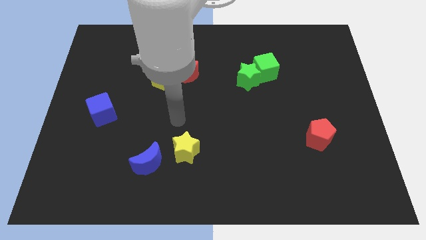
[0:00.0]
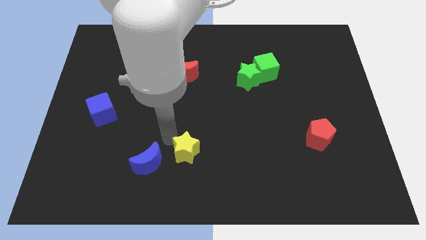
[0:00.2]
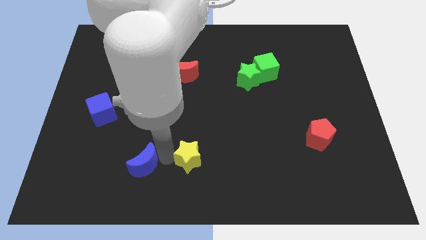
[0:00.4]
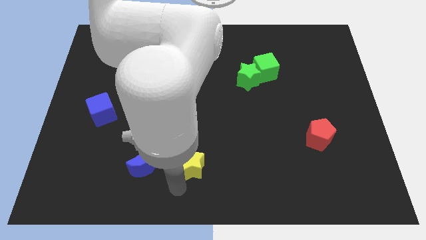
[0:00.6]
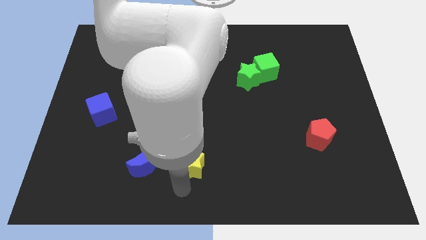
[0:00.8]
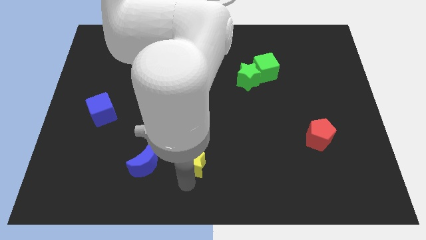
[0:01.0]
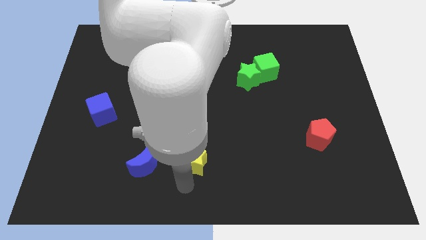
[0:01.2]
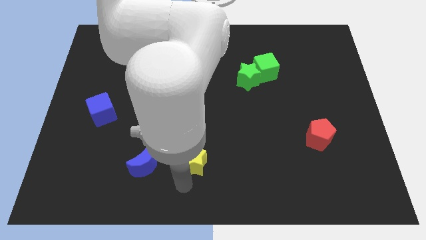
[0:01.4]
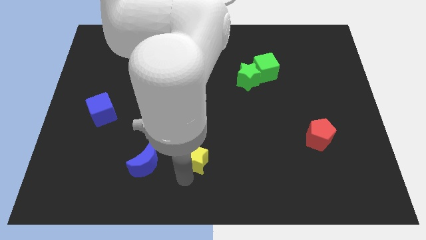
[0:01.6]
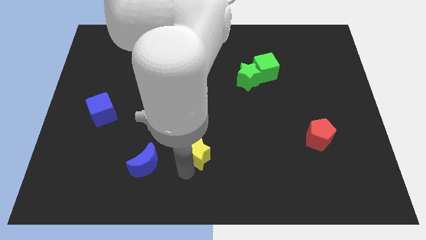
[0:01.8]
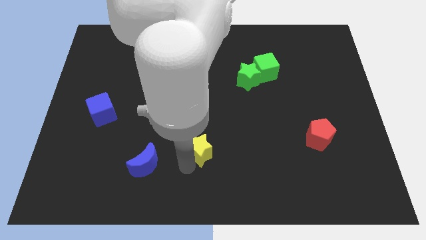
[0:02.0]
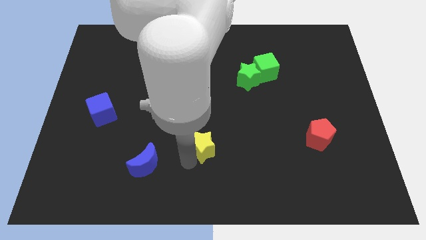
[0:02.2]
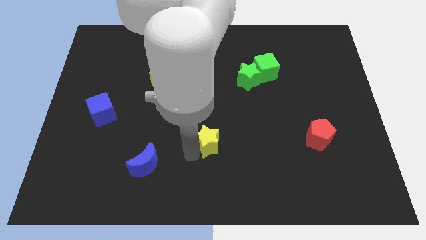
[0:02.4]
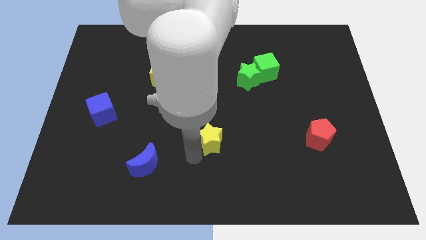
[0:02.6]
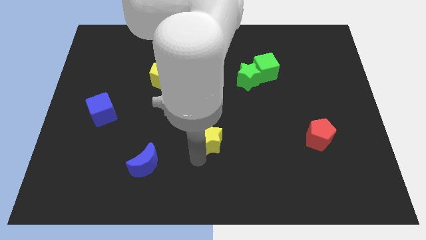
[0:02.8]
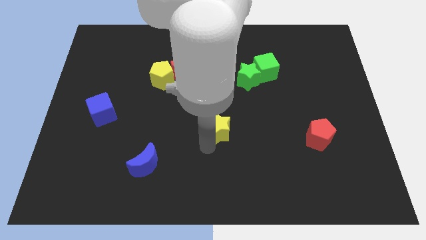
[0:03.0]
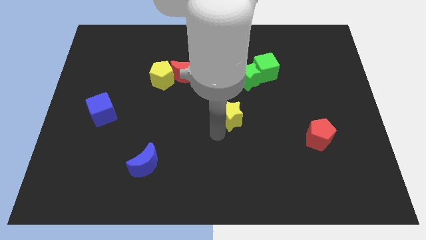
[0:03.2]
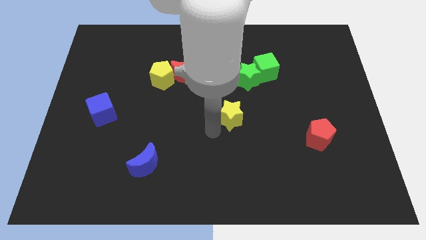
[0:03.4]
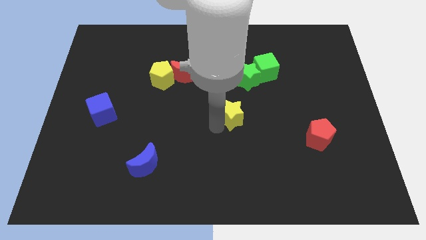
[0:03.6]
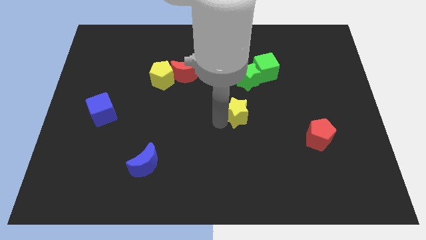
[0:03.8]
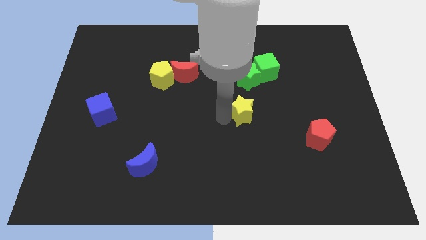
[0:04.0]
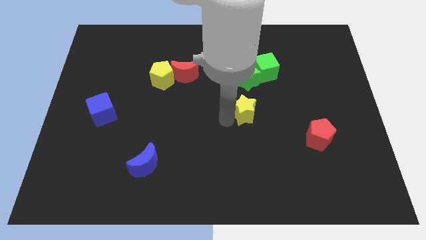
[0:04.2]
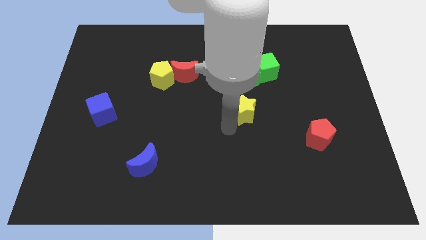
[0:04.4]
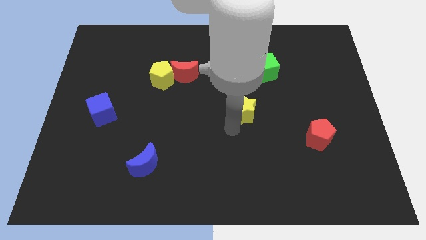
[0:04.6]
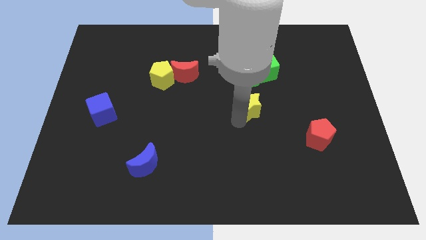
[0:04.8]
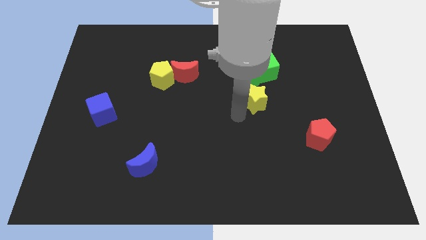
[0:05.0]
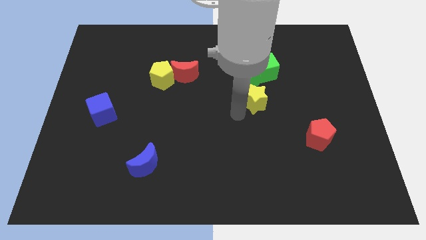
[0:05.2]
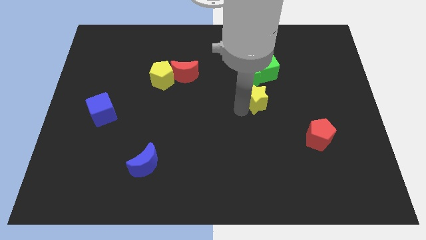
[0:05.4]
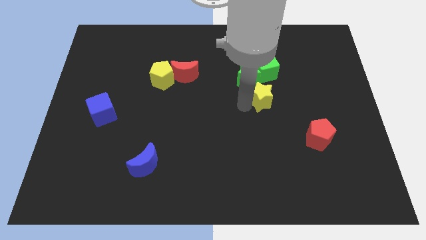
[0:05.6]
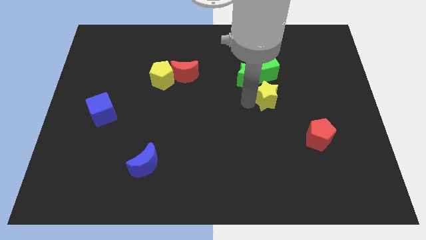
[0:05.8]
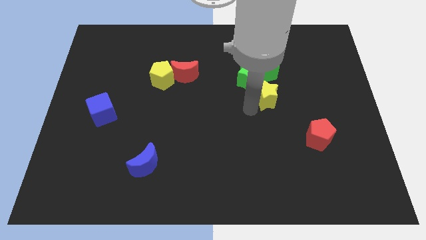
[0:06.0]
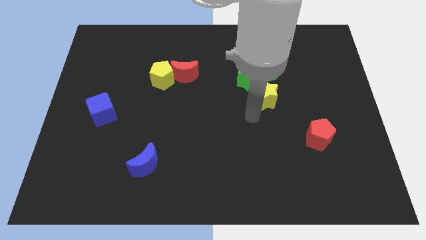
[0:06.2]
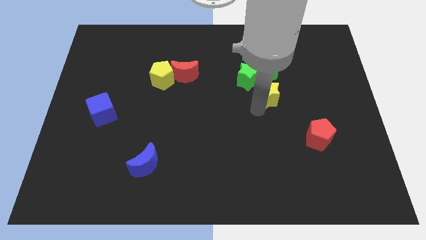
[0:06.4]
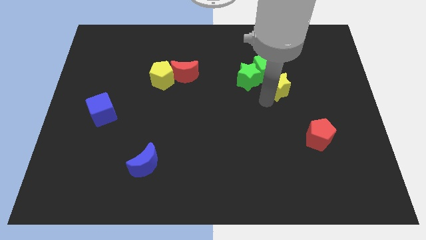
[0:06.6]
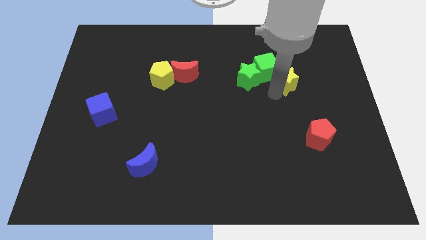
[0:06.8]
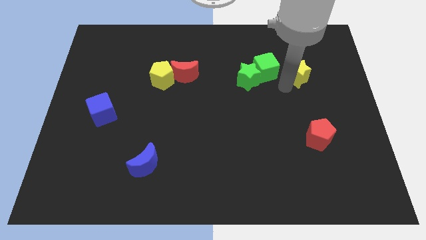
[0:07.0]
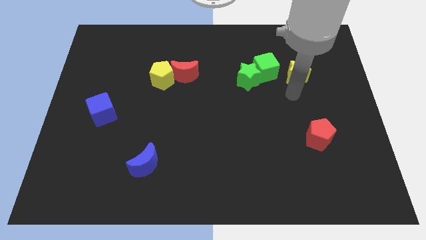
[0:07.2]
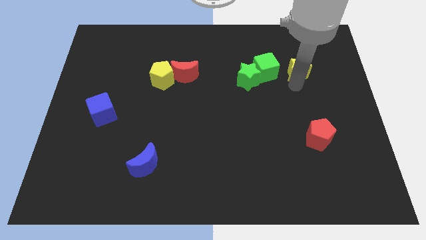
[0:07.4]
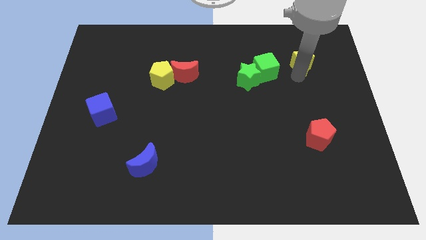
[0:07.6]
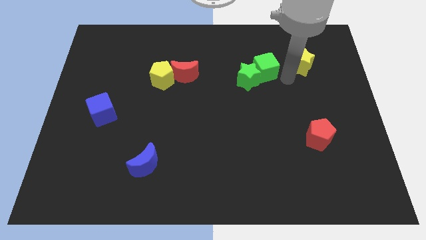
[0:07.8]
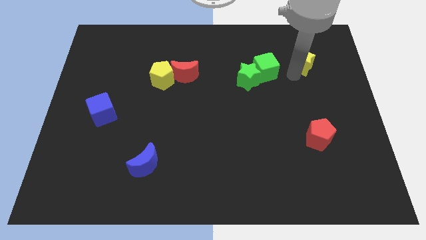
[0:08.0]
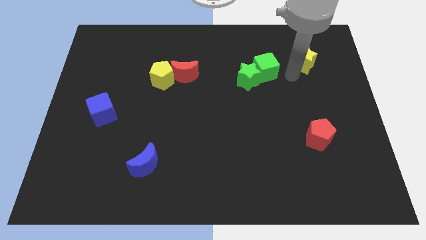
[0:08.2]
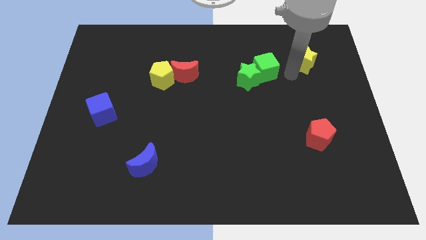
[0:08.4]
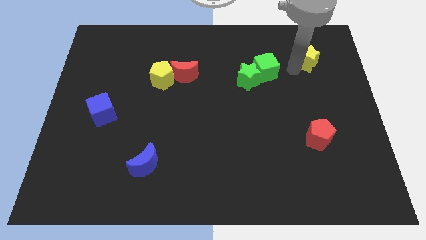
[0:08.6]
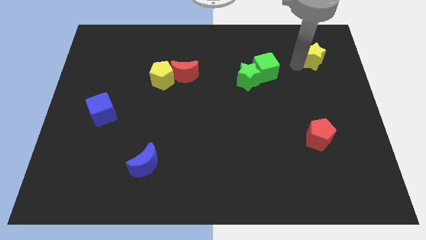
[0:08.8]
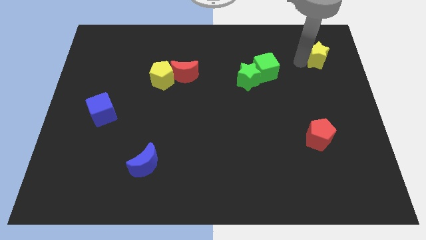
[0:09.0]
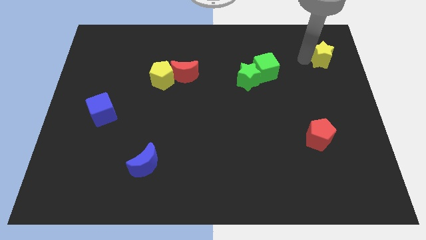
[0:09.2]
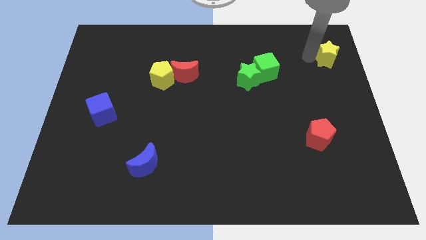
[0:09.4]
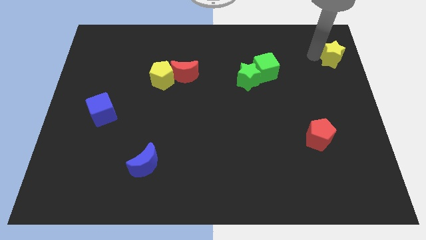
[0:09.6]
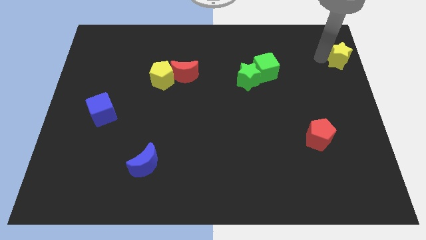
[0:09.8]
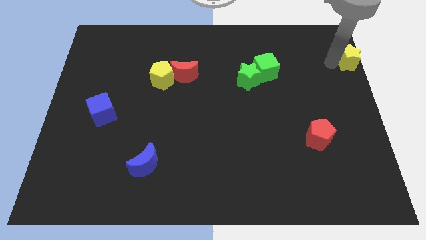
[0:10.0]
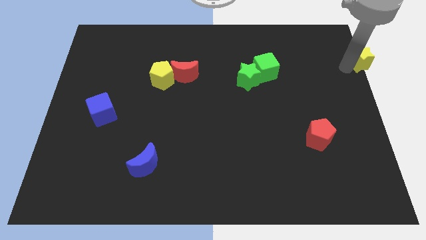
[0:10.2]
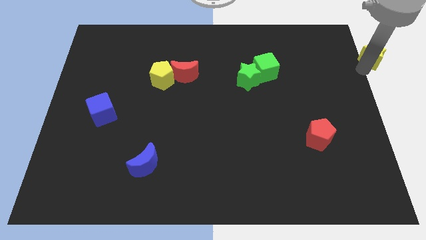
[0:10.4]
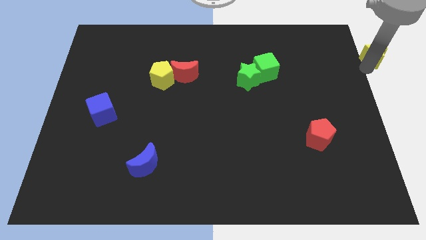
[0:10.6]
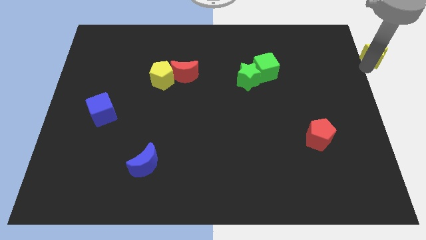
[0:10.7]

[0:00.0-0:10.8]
put the yellow star to the top right

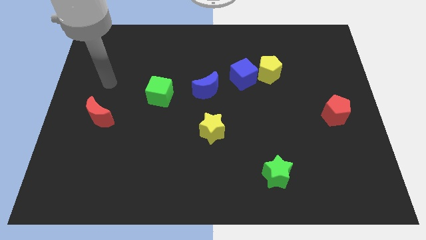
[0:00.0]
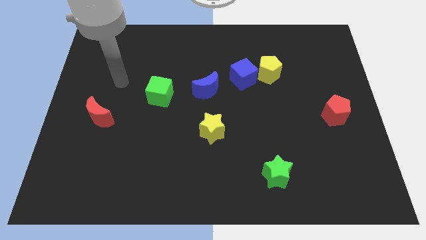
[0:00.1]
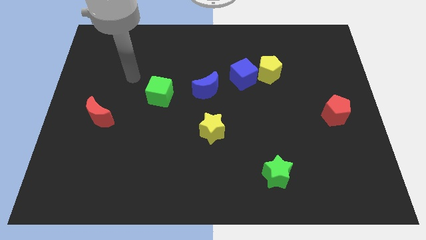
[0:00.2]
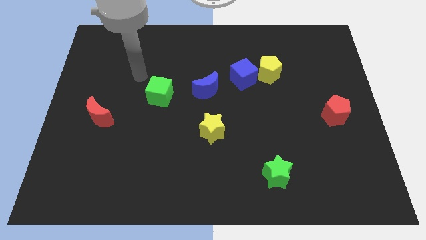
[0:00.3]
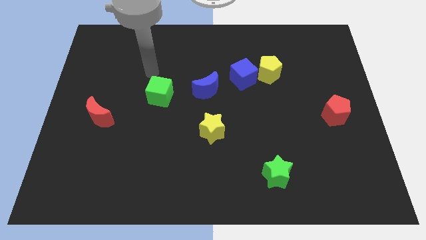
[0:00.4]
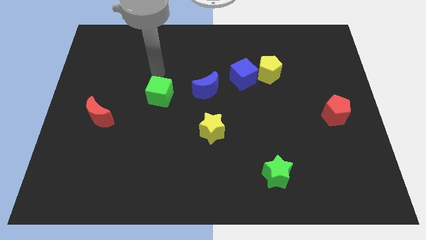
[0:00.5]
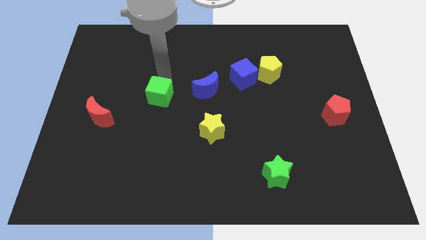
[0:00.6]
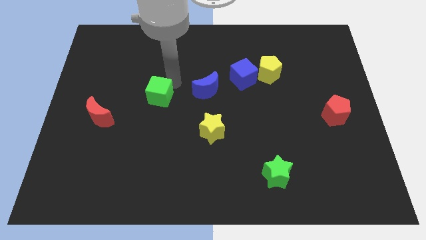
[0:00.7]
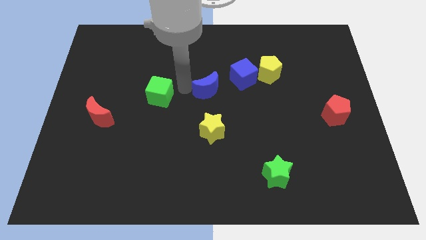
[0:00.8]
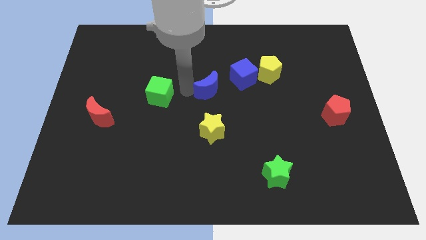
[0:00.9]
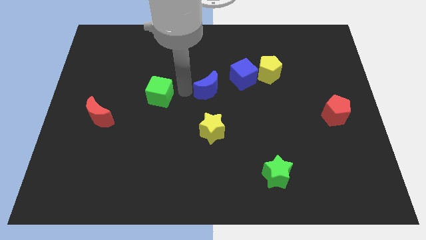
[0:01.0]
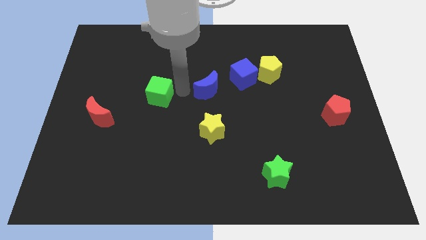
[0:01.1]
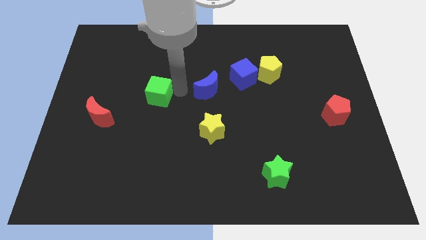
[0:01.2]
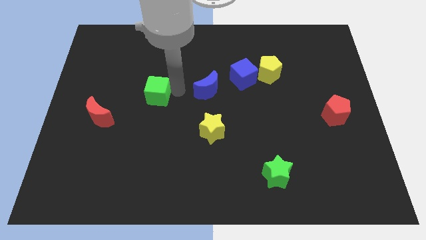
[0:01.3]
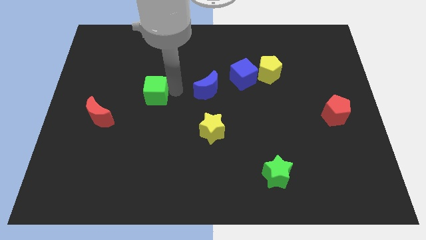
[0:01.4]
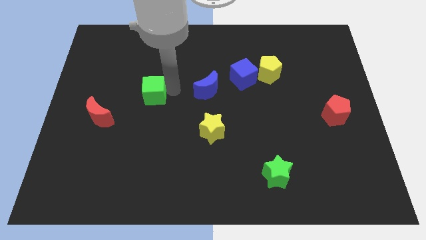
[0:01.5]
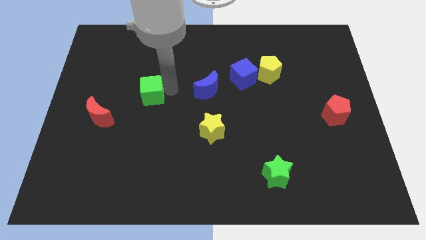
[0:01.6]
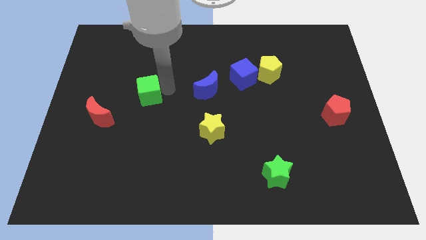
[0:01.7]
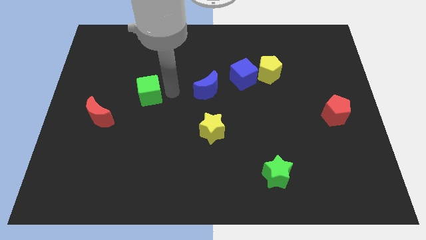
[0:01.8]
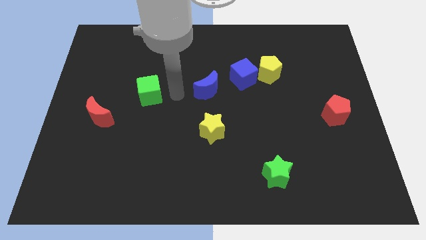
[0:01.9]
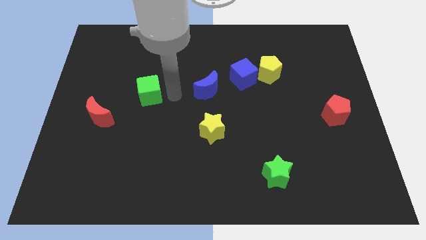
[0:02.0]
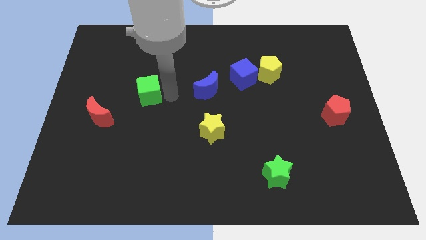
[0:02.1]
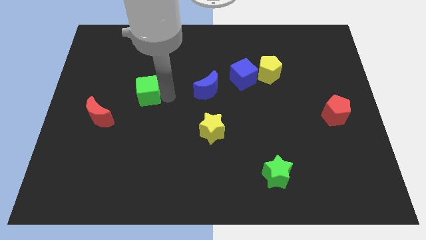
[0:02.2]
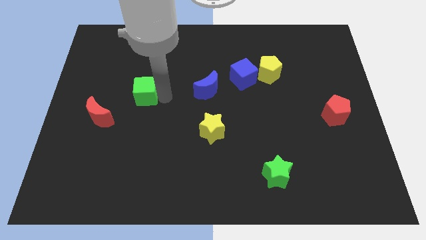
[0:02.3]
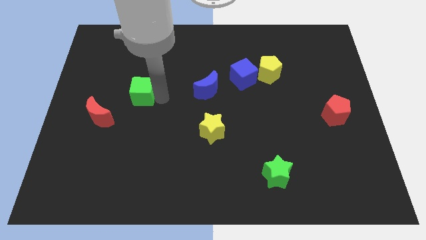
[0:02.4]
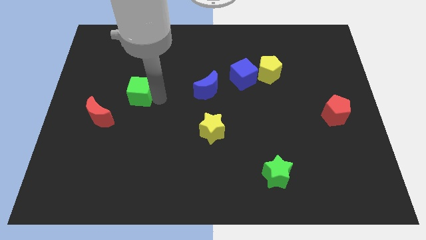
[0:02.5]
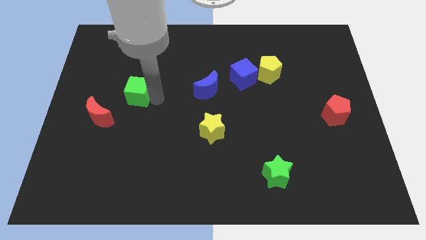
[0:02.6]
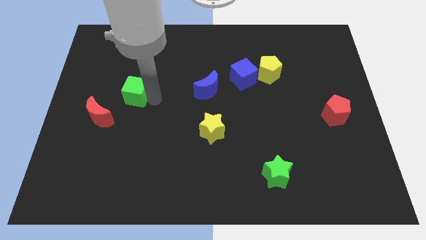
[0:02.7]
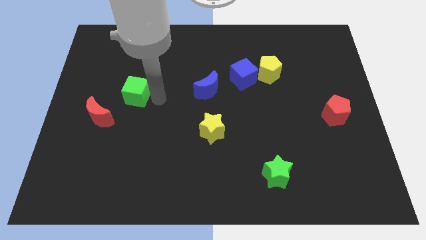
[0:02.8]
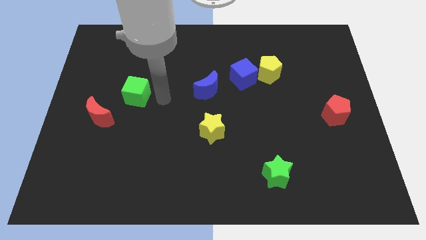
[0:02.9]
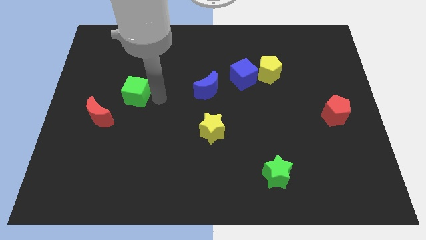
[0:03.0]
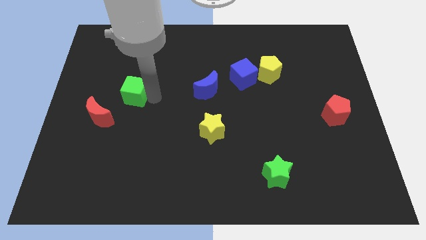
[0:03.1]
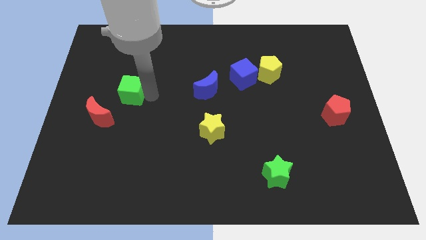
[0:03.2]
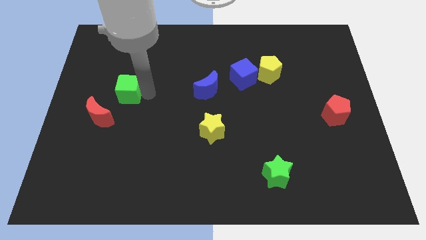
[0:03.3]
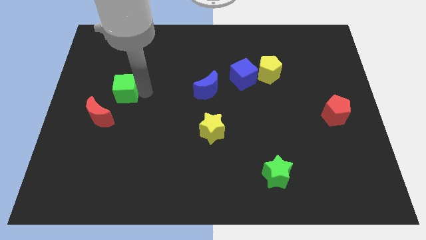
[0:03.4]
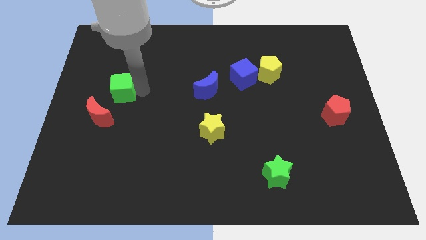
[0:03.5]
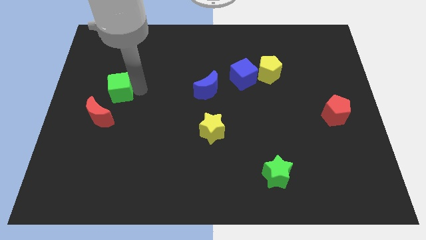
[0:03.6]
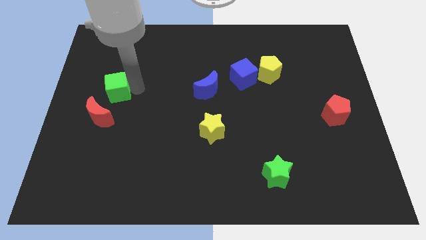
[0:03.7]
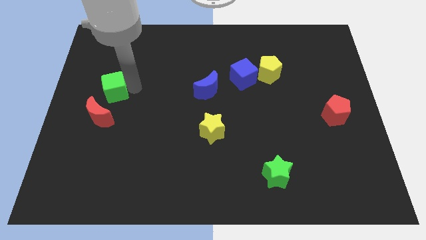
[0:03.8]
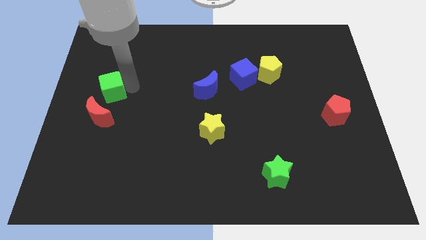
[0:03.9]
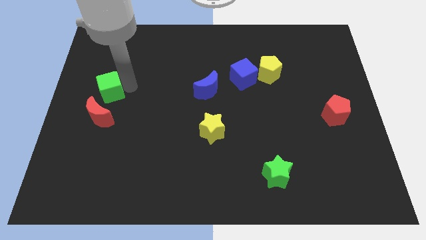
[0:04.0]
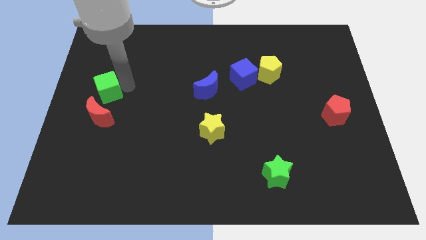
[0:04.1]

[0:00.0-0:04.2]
push the green cube to the left side
